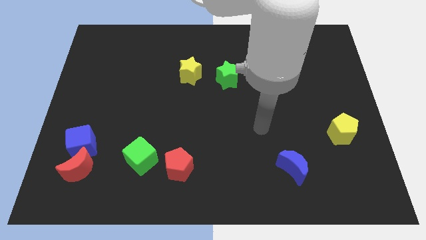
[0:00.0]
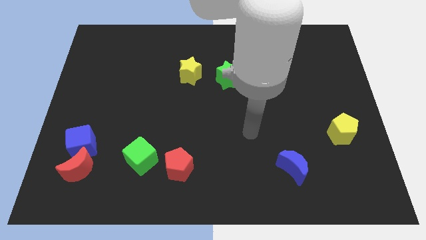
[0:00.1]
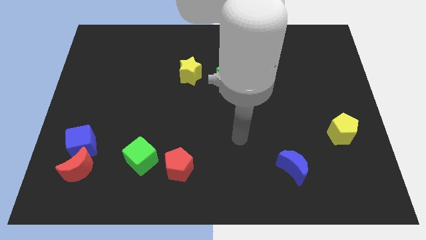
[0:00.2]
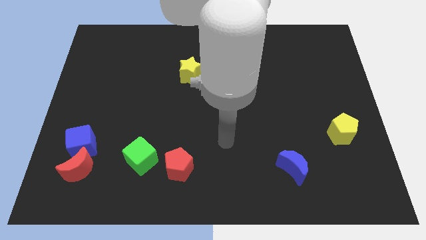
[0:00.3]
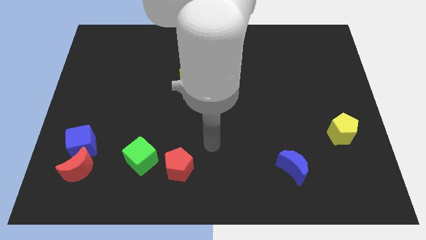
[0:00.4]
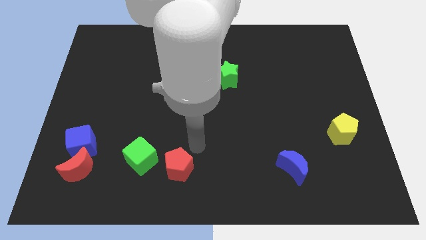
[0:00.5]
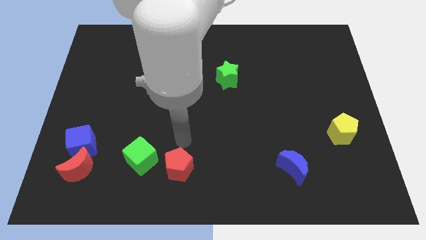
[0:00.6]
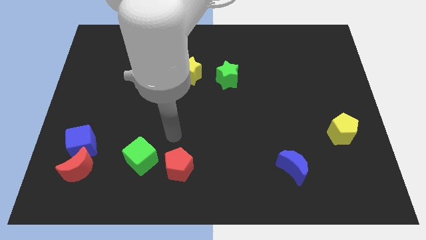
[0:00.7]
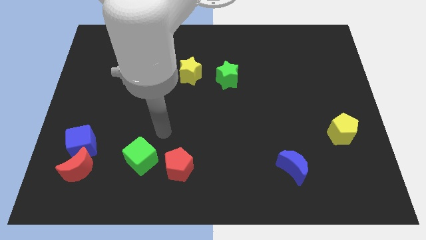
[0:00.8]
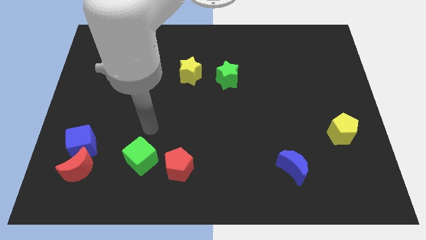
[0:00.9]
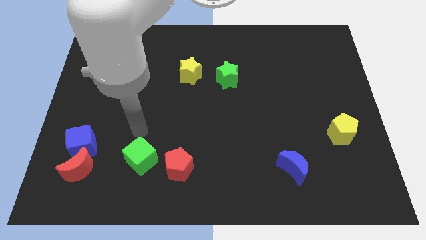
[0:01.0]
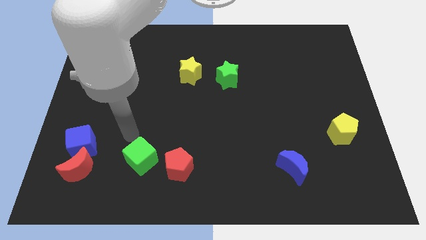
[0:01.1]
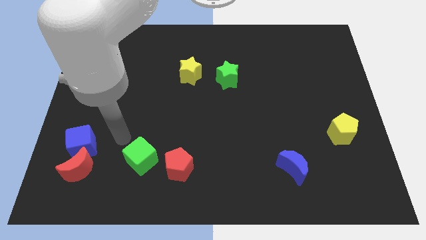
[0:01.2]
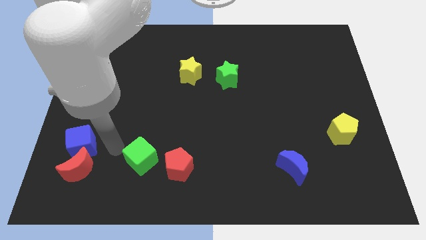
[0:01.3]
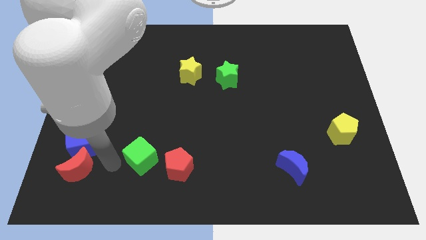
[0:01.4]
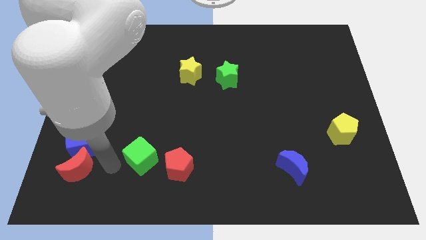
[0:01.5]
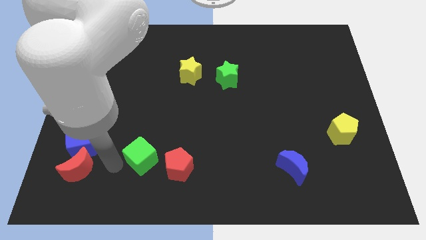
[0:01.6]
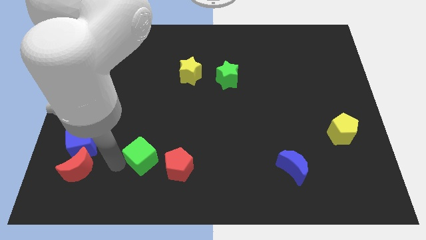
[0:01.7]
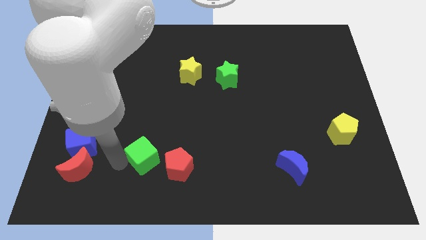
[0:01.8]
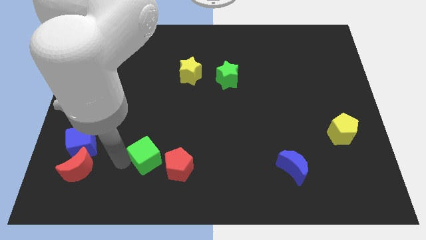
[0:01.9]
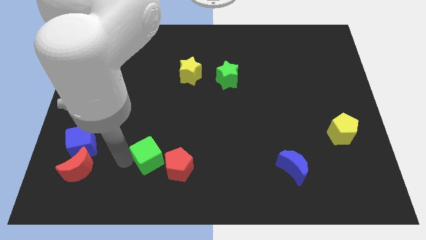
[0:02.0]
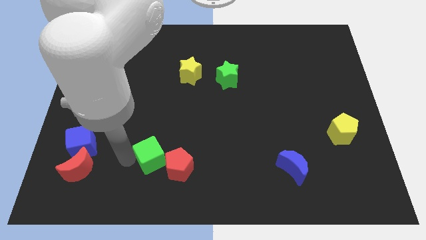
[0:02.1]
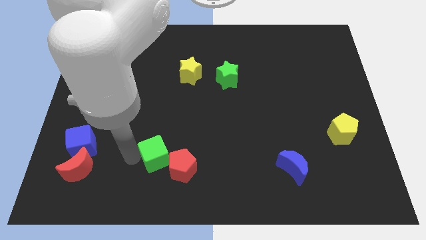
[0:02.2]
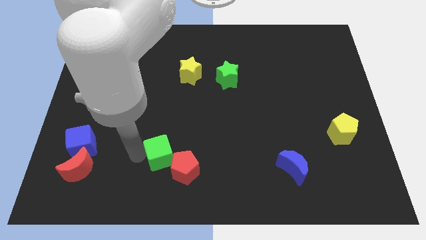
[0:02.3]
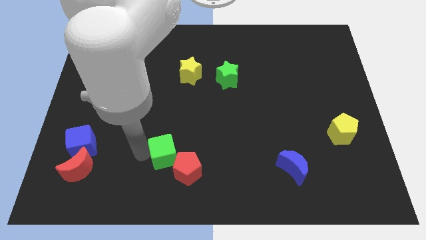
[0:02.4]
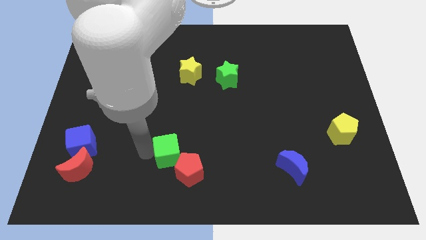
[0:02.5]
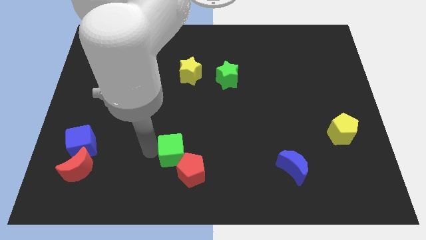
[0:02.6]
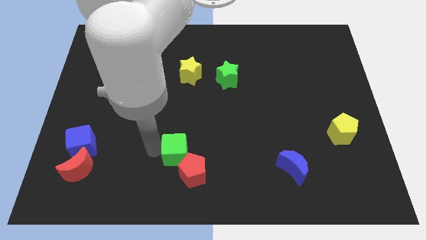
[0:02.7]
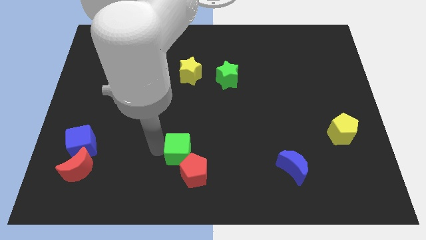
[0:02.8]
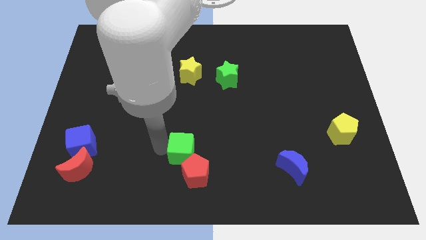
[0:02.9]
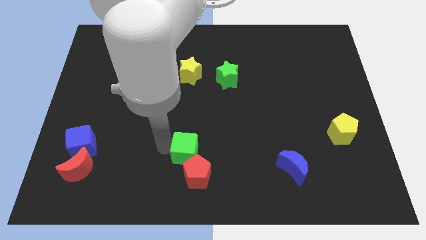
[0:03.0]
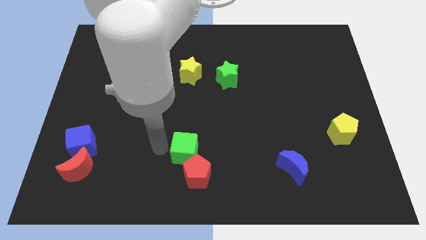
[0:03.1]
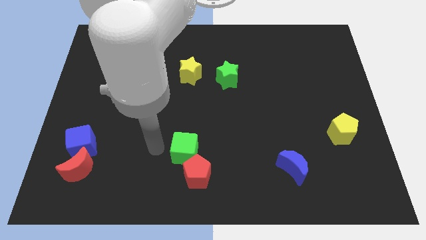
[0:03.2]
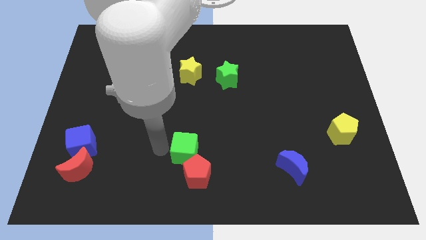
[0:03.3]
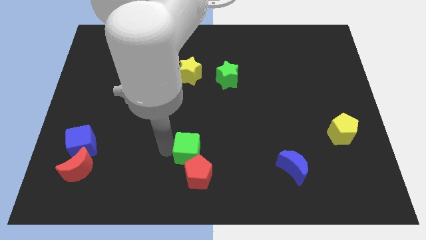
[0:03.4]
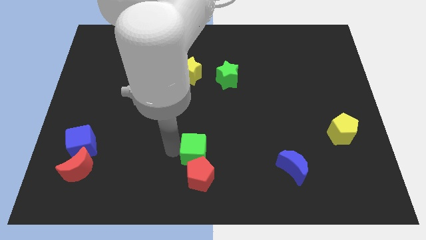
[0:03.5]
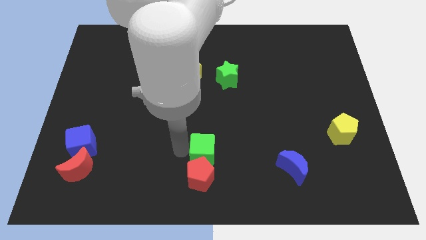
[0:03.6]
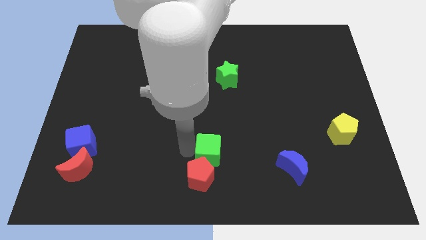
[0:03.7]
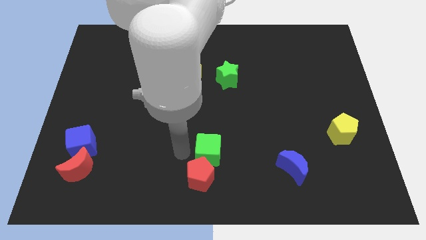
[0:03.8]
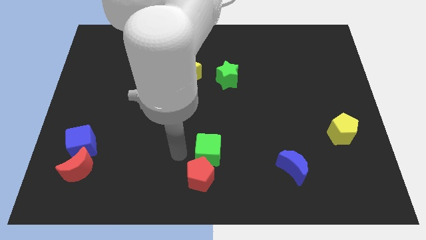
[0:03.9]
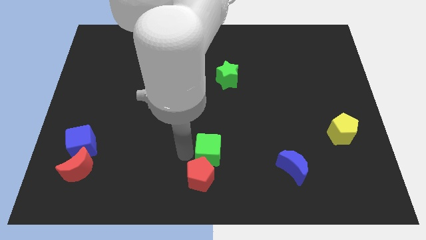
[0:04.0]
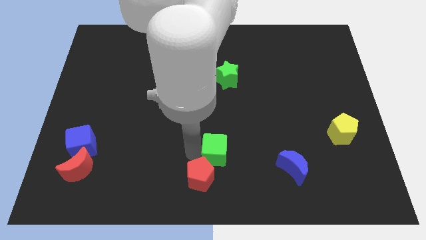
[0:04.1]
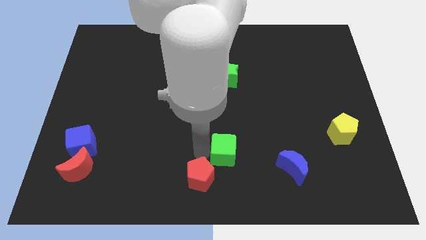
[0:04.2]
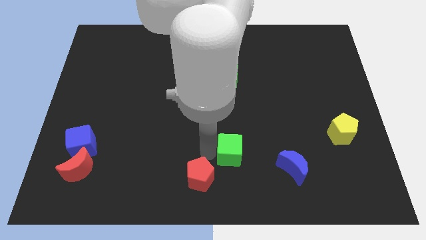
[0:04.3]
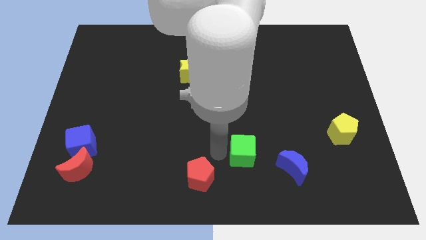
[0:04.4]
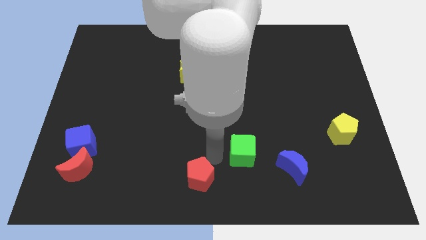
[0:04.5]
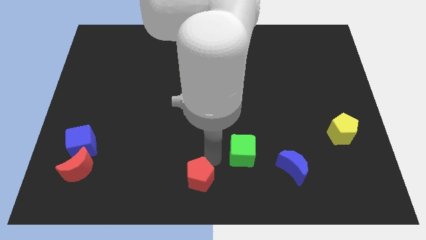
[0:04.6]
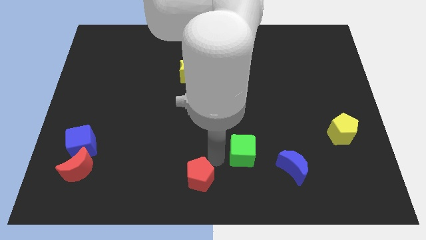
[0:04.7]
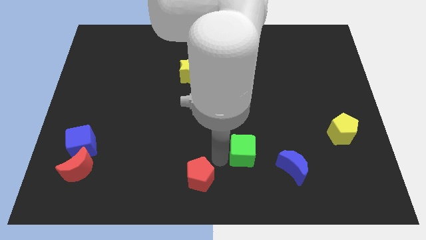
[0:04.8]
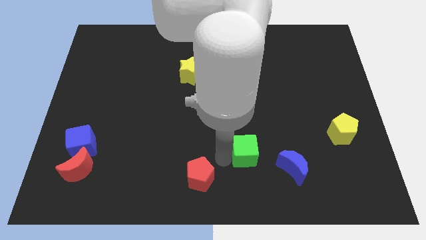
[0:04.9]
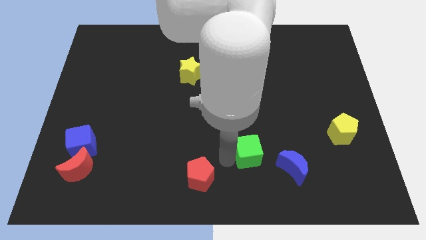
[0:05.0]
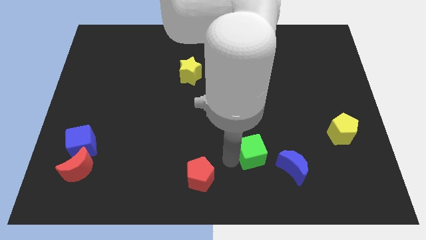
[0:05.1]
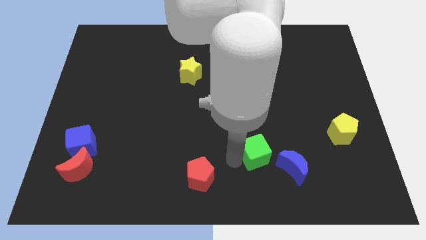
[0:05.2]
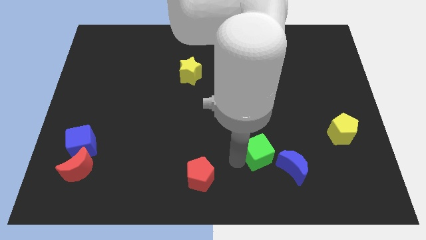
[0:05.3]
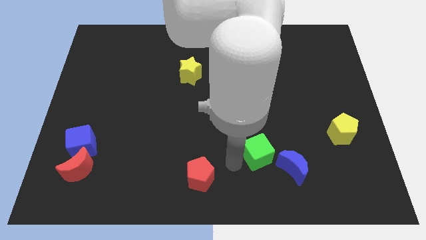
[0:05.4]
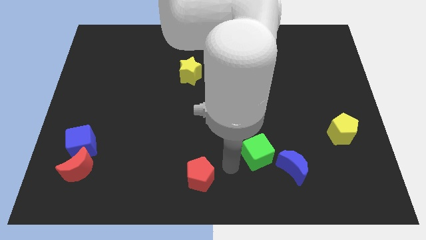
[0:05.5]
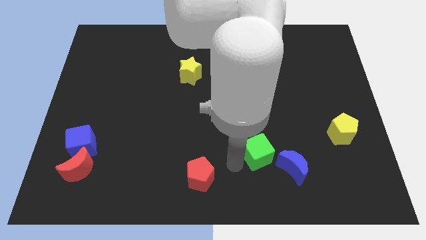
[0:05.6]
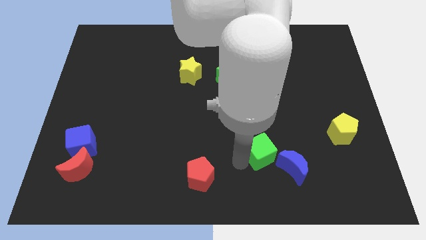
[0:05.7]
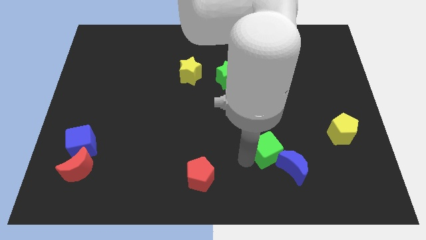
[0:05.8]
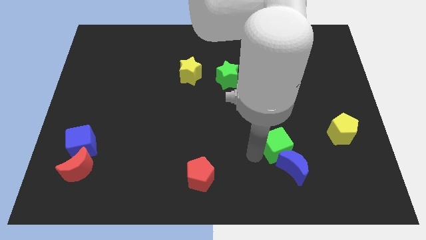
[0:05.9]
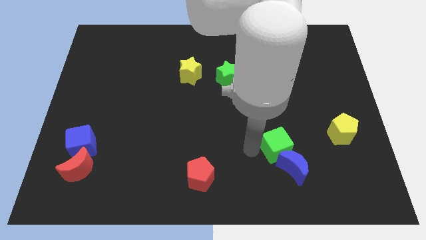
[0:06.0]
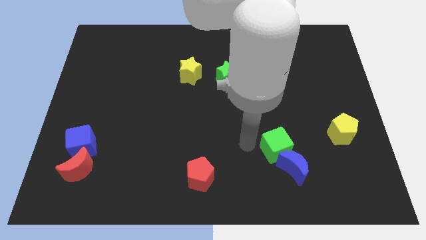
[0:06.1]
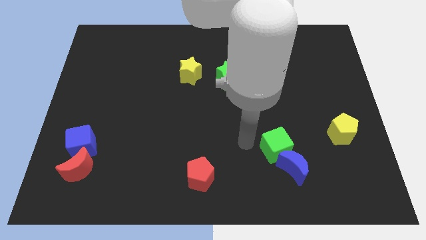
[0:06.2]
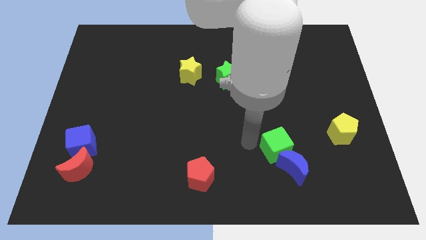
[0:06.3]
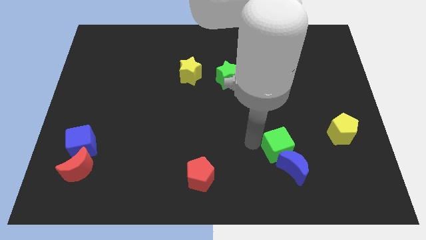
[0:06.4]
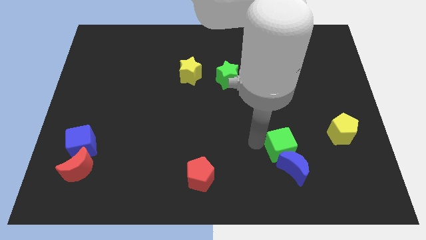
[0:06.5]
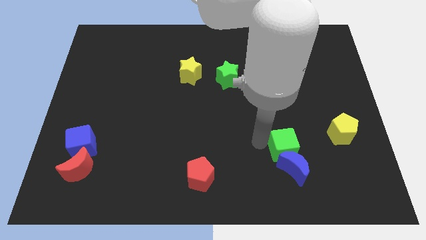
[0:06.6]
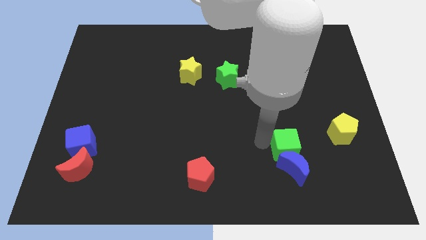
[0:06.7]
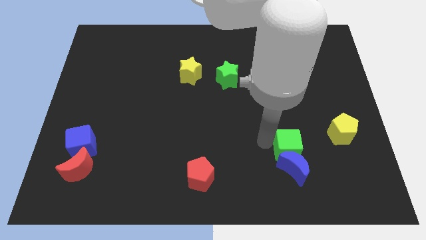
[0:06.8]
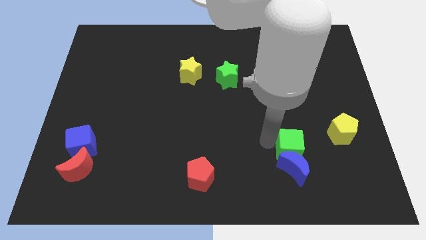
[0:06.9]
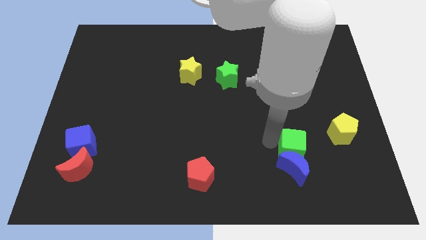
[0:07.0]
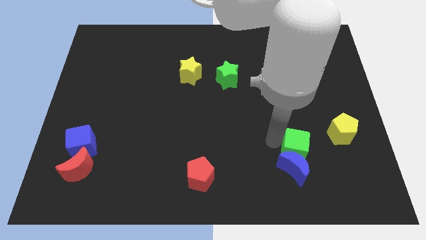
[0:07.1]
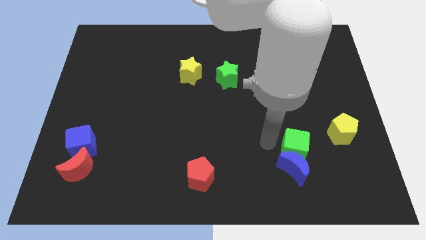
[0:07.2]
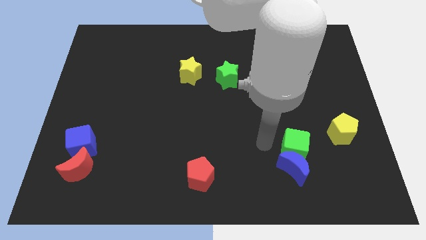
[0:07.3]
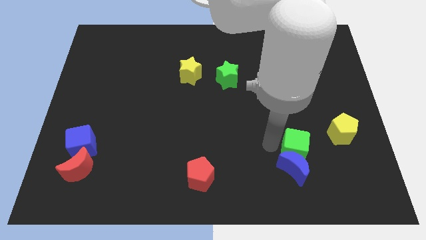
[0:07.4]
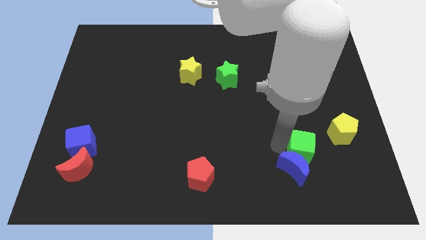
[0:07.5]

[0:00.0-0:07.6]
put the green cube diagonally down and to the left of the yellow pentagon
